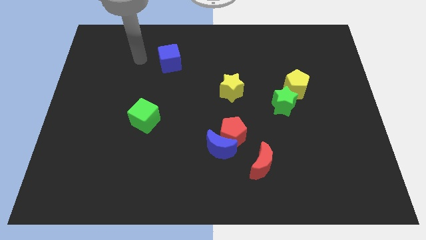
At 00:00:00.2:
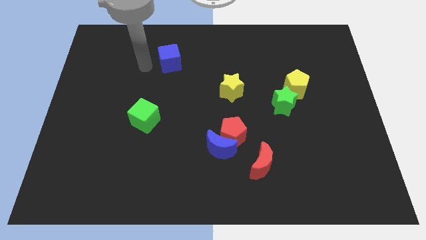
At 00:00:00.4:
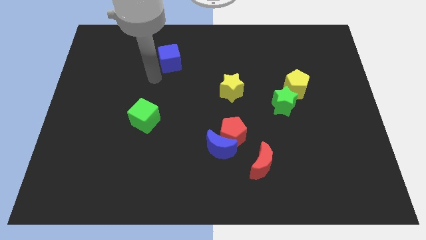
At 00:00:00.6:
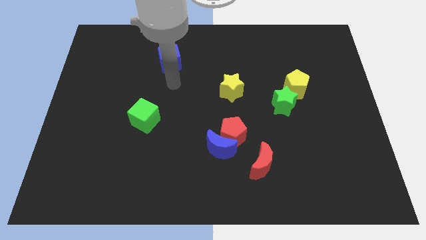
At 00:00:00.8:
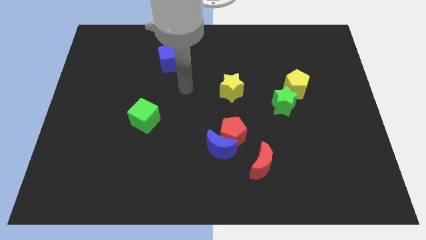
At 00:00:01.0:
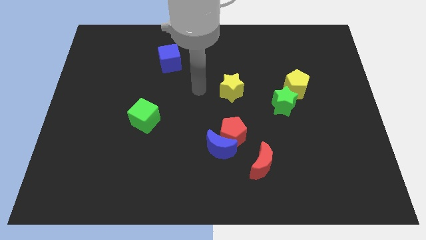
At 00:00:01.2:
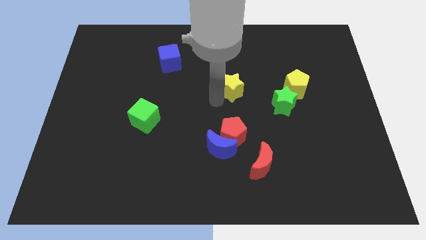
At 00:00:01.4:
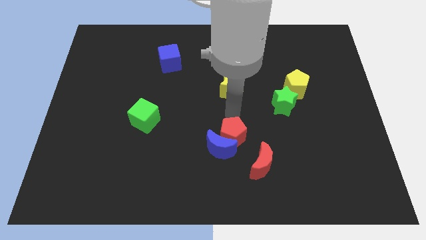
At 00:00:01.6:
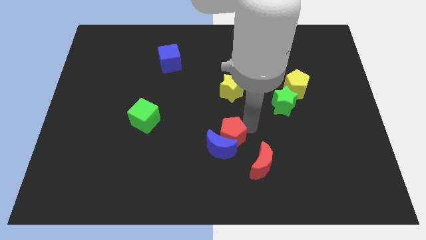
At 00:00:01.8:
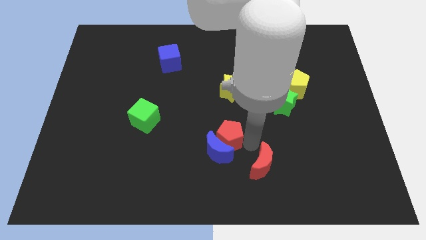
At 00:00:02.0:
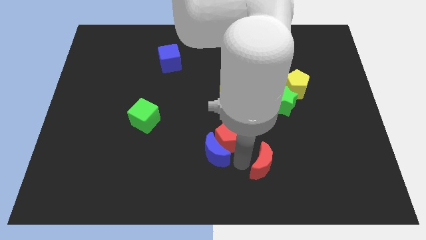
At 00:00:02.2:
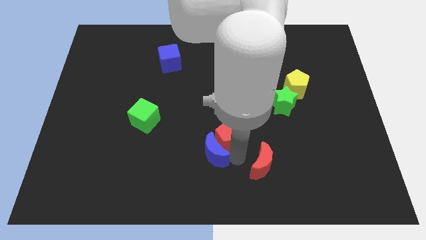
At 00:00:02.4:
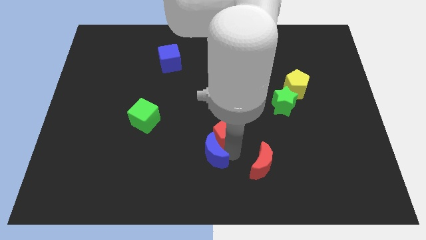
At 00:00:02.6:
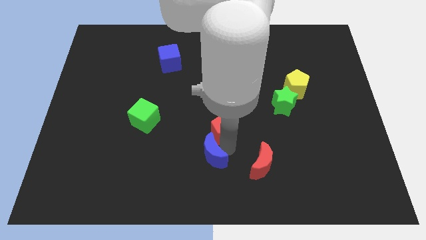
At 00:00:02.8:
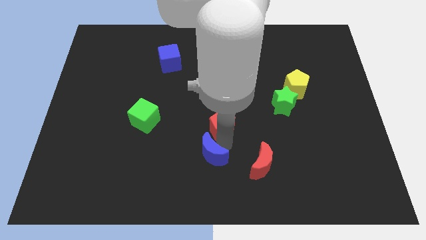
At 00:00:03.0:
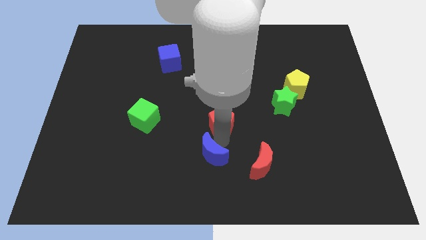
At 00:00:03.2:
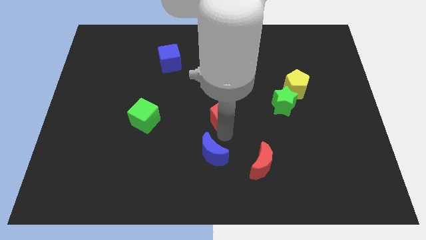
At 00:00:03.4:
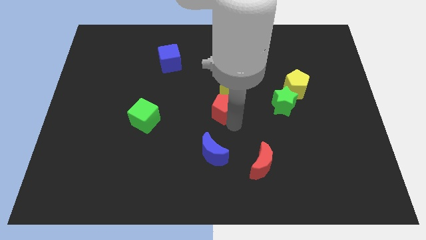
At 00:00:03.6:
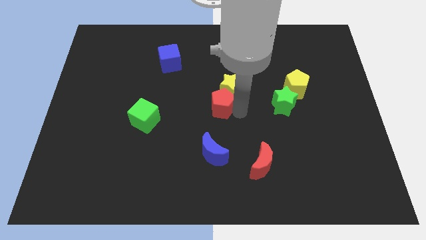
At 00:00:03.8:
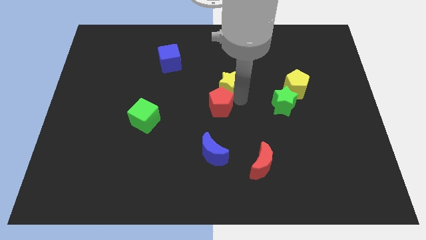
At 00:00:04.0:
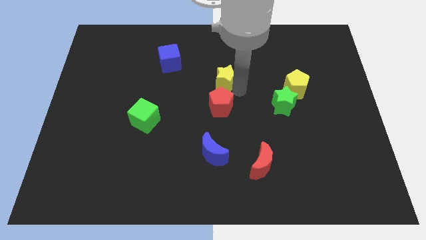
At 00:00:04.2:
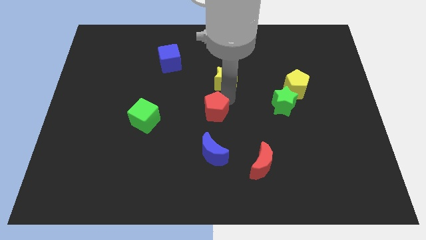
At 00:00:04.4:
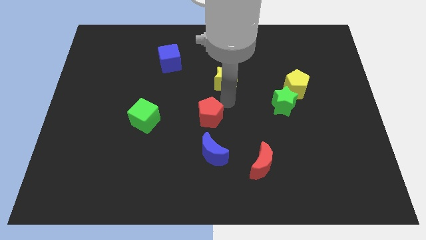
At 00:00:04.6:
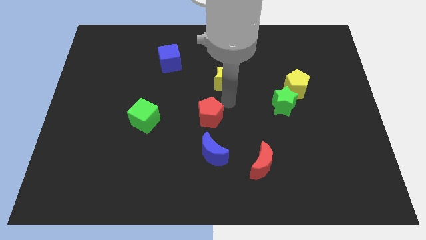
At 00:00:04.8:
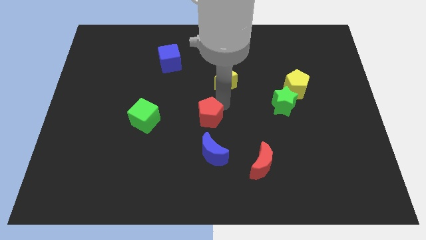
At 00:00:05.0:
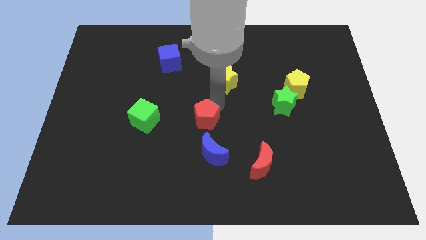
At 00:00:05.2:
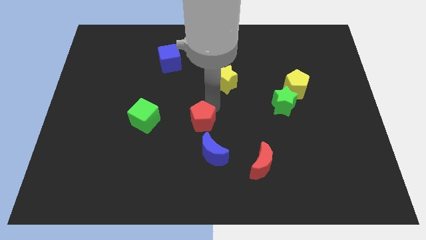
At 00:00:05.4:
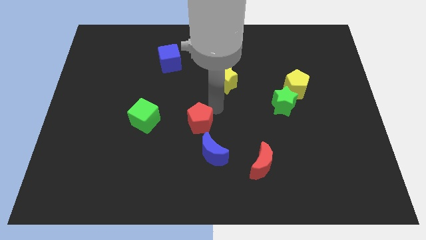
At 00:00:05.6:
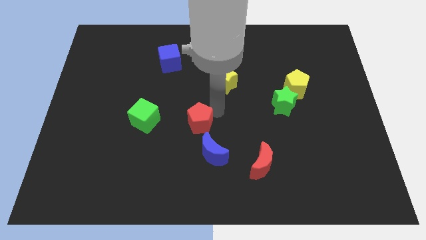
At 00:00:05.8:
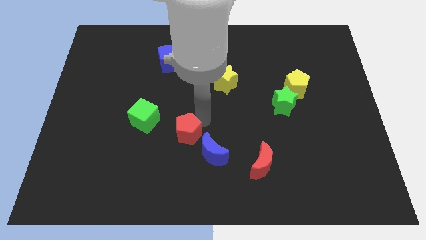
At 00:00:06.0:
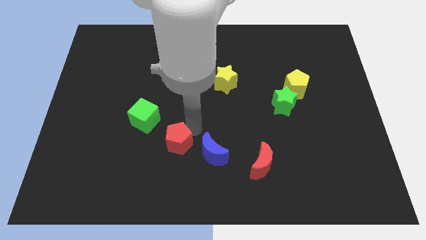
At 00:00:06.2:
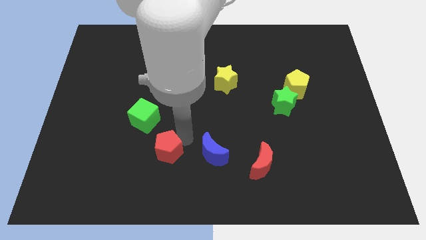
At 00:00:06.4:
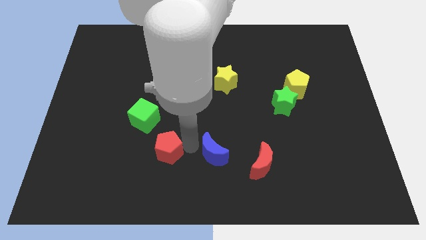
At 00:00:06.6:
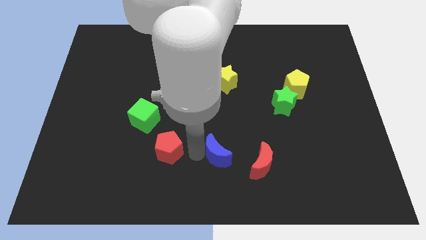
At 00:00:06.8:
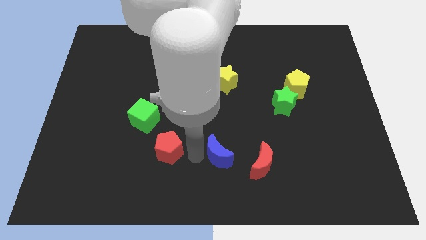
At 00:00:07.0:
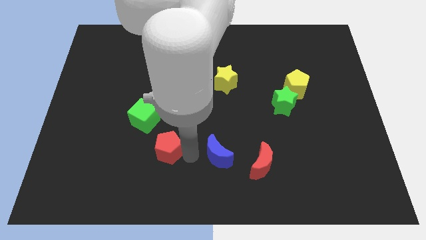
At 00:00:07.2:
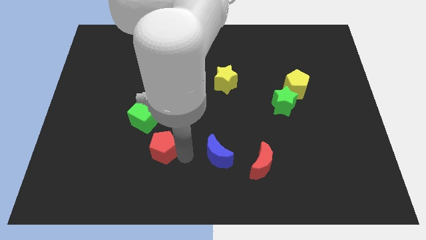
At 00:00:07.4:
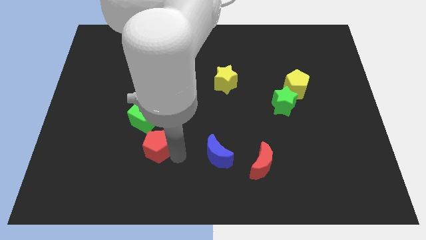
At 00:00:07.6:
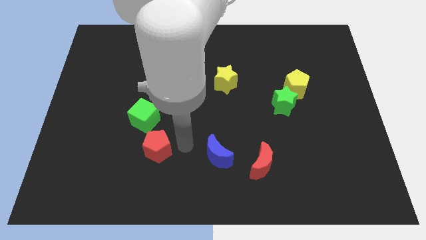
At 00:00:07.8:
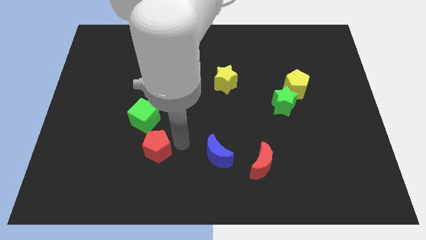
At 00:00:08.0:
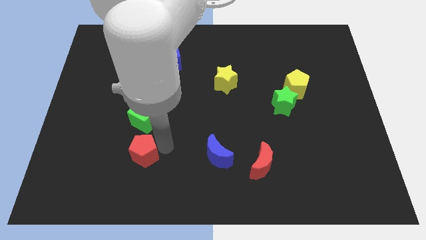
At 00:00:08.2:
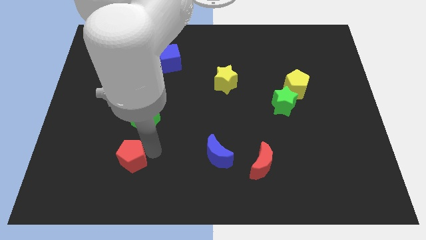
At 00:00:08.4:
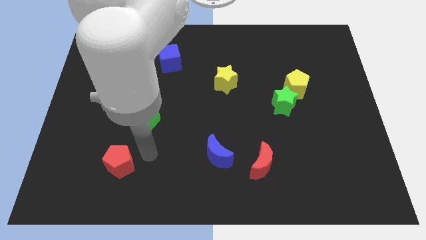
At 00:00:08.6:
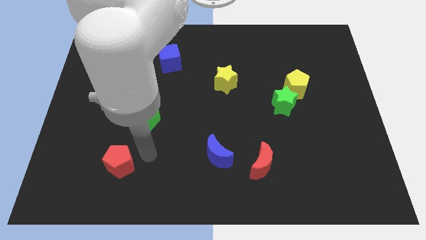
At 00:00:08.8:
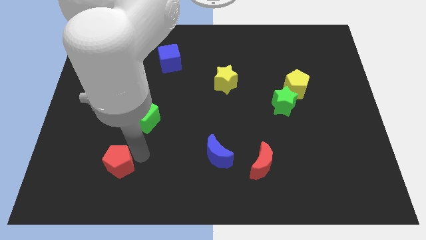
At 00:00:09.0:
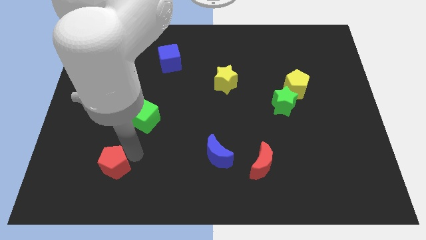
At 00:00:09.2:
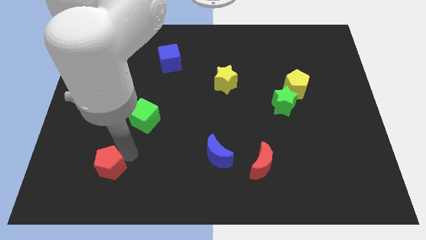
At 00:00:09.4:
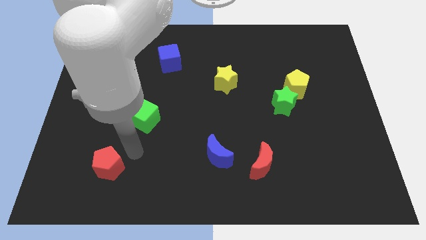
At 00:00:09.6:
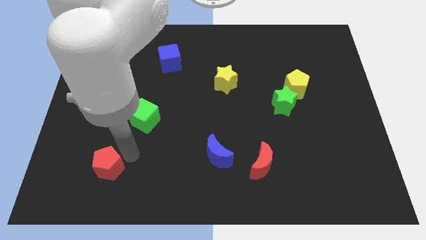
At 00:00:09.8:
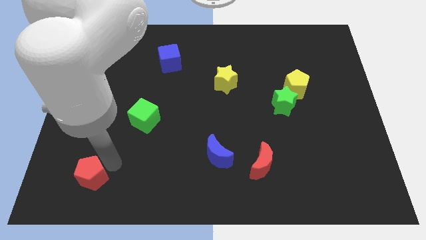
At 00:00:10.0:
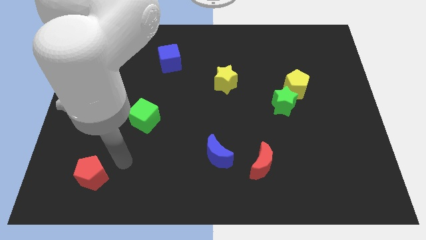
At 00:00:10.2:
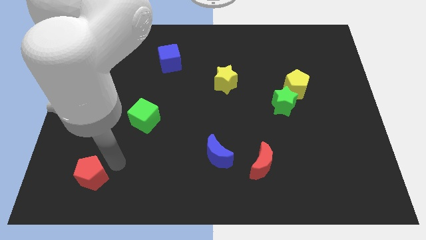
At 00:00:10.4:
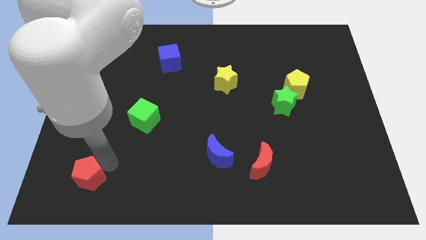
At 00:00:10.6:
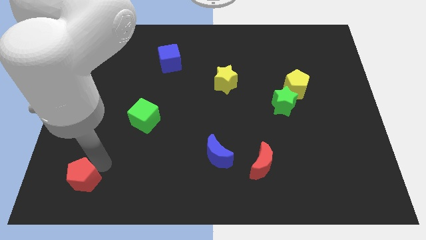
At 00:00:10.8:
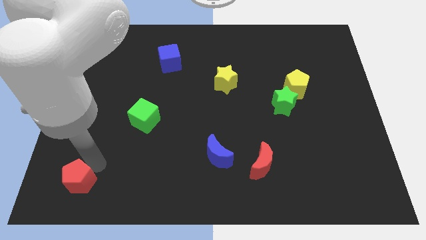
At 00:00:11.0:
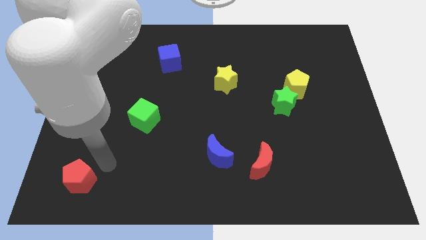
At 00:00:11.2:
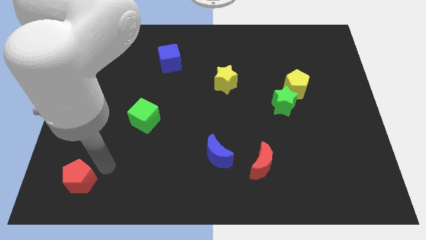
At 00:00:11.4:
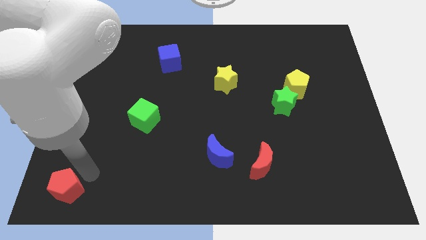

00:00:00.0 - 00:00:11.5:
push the red pentagon to the bottom left of the board
